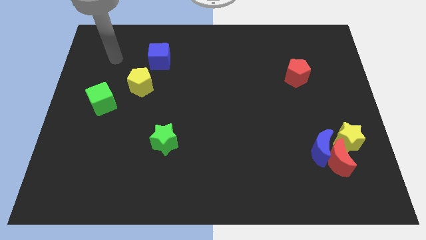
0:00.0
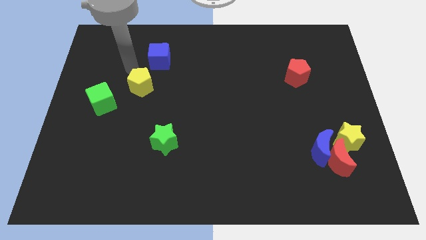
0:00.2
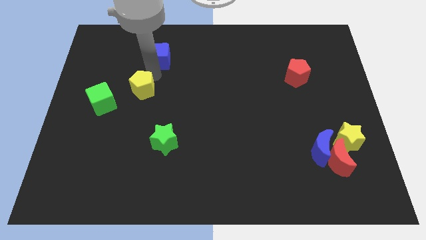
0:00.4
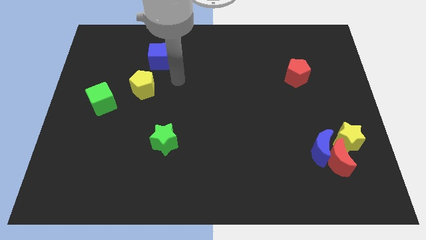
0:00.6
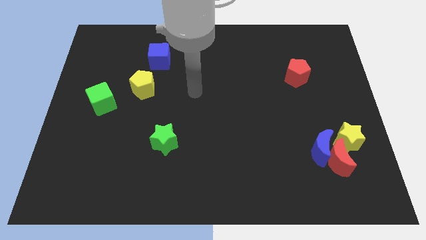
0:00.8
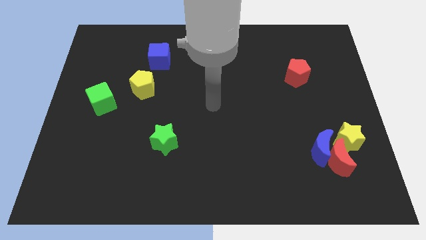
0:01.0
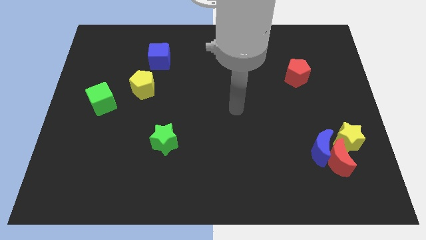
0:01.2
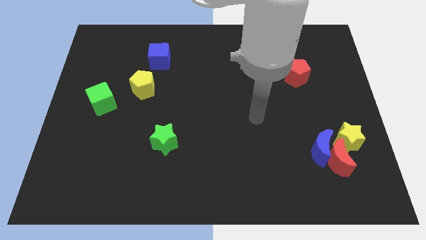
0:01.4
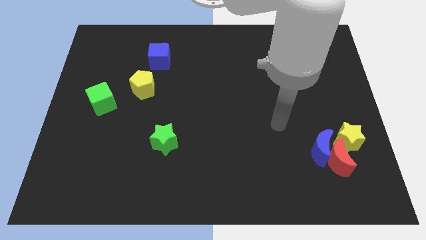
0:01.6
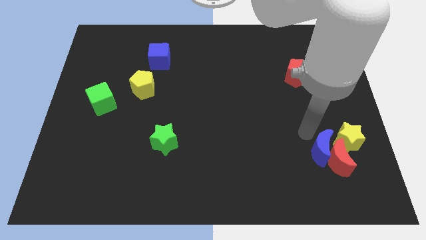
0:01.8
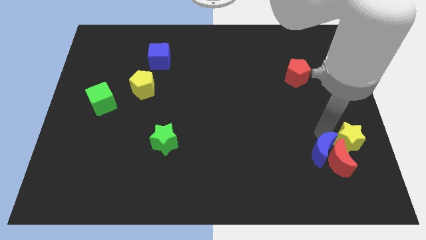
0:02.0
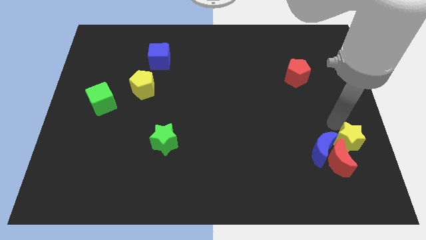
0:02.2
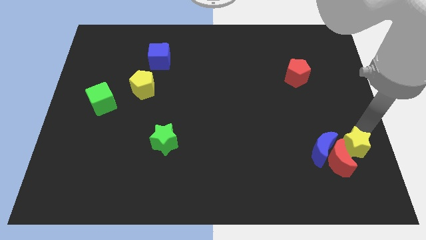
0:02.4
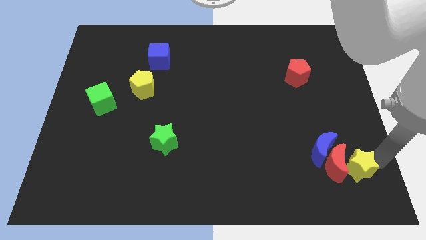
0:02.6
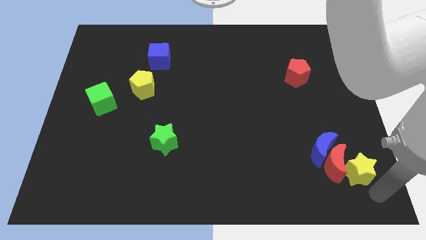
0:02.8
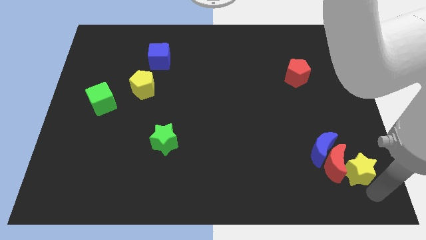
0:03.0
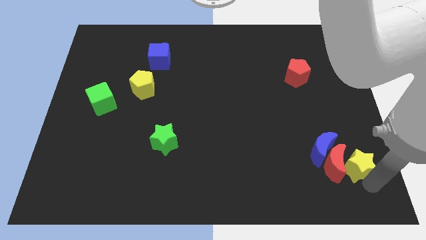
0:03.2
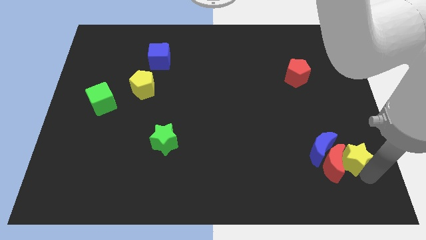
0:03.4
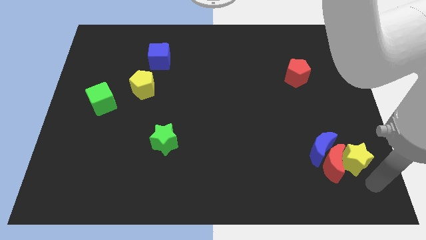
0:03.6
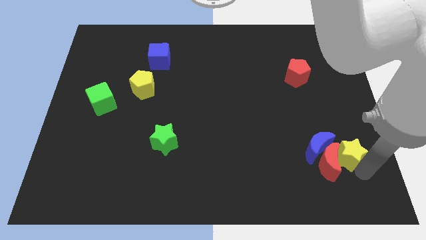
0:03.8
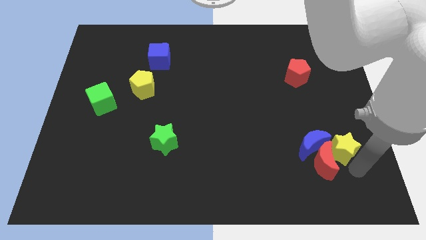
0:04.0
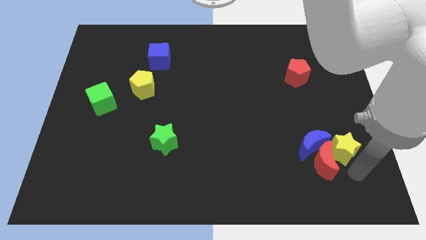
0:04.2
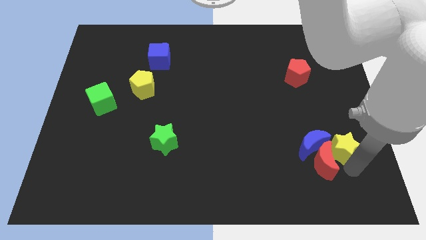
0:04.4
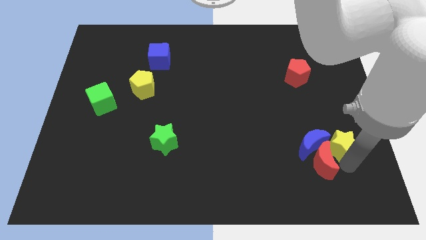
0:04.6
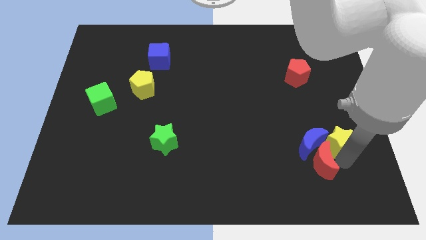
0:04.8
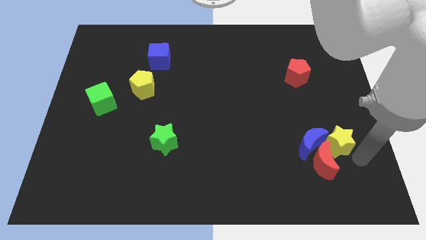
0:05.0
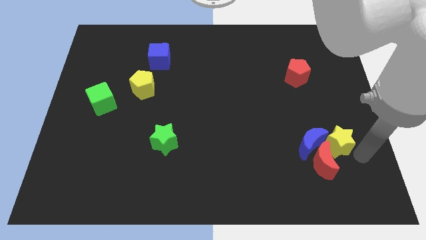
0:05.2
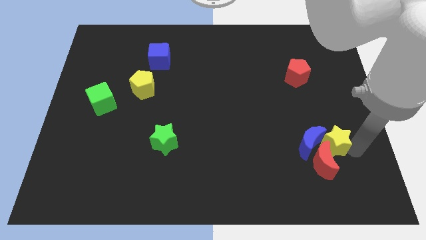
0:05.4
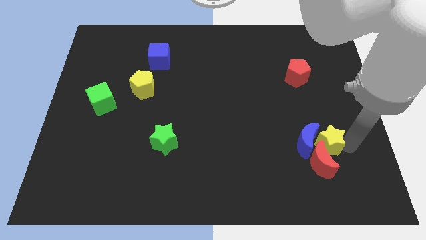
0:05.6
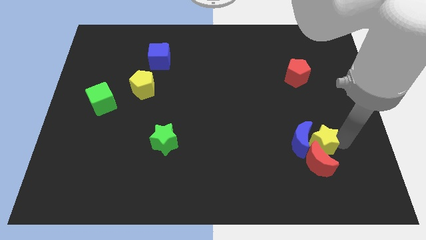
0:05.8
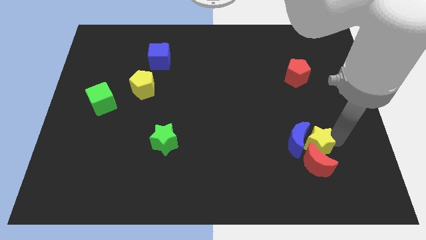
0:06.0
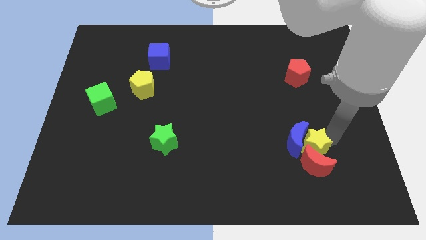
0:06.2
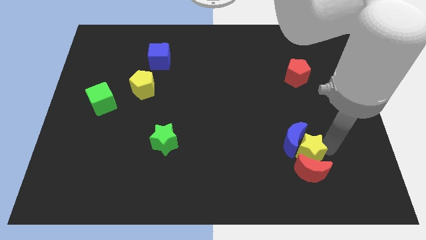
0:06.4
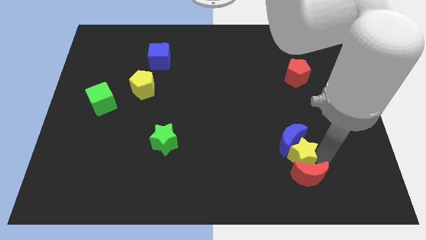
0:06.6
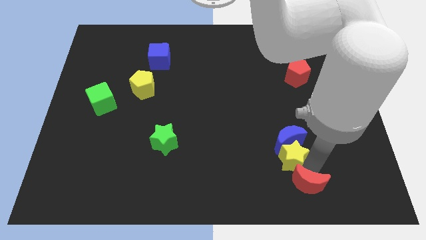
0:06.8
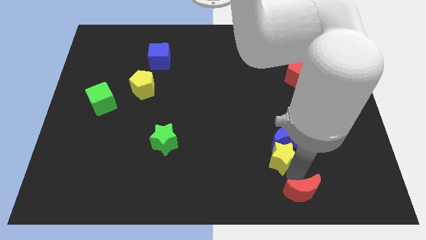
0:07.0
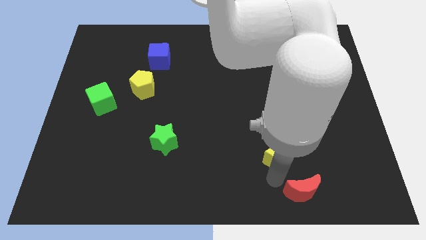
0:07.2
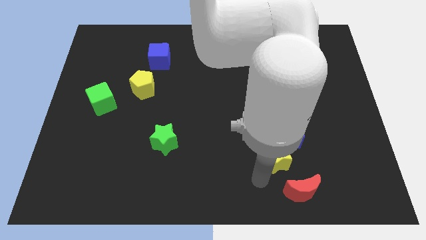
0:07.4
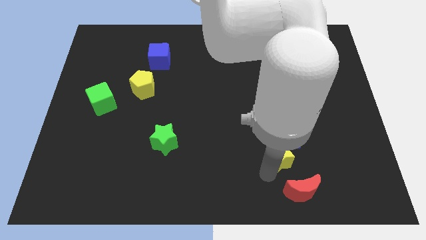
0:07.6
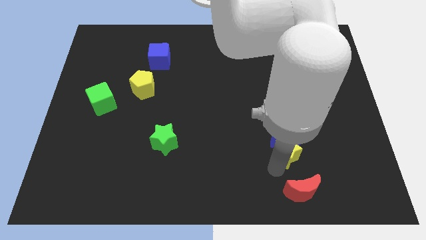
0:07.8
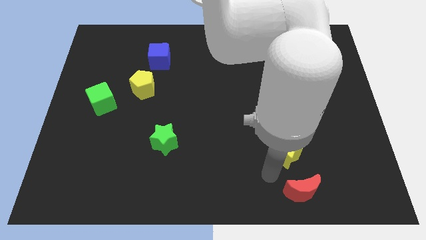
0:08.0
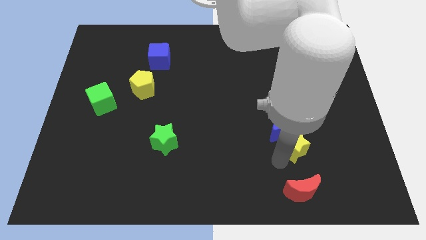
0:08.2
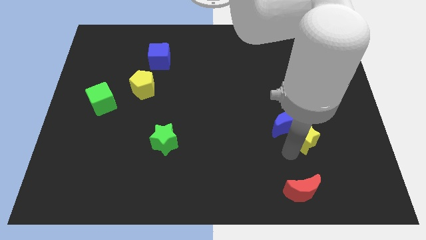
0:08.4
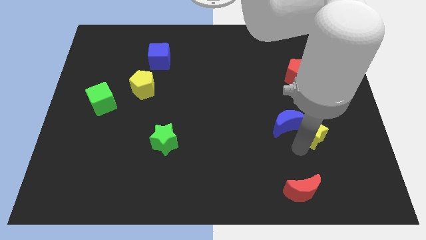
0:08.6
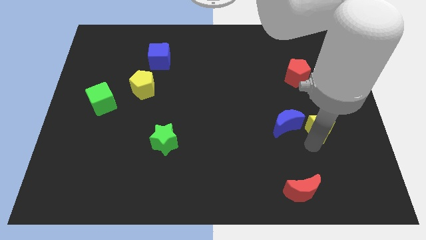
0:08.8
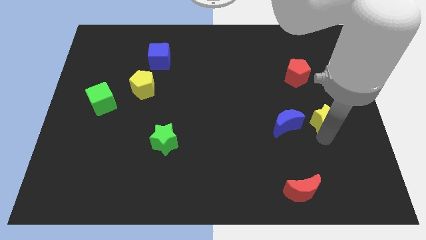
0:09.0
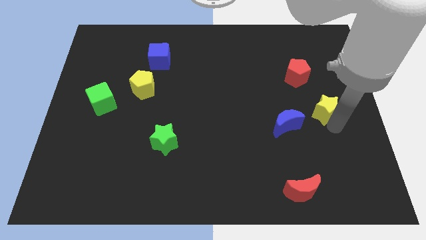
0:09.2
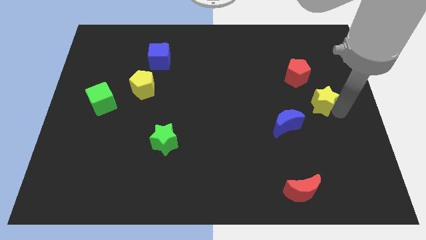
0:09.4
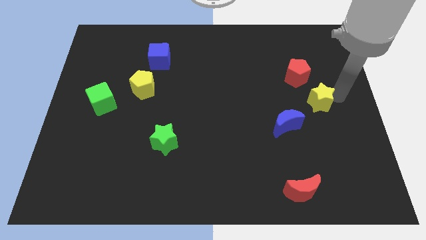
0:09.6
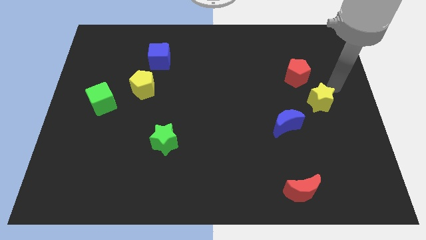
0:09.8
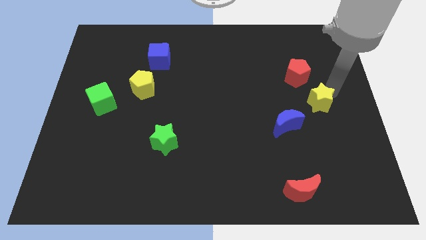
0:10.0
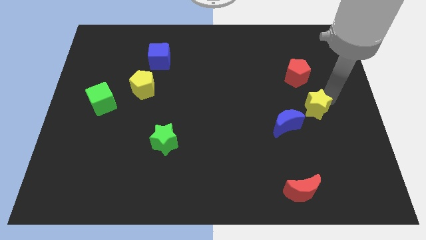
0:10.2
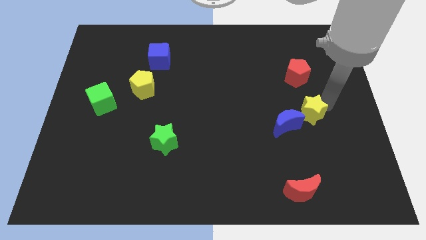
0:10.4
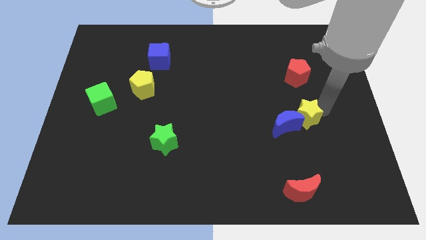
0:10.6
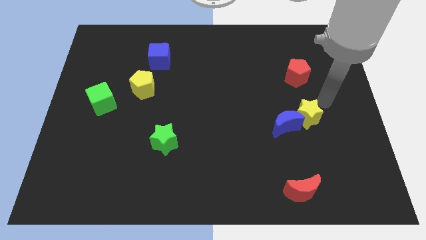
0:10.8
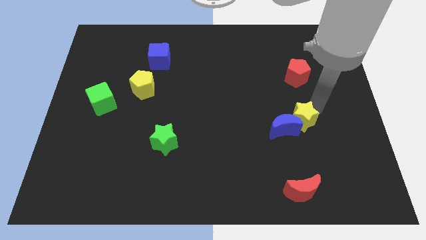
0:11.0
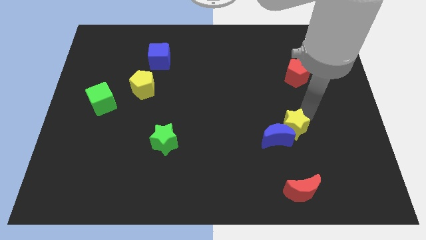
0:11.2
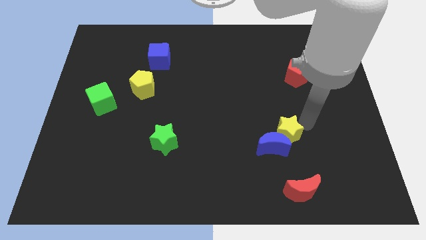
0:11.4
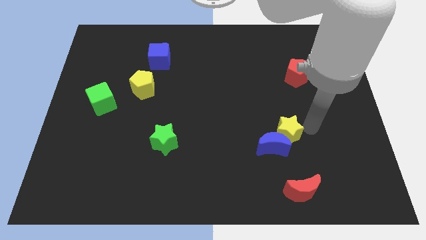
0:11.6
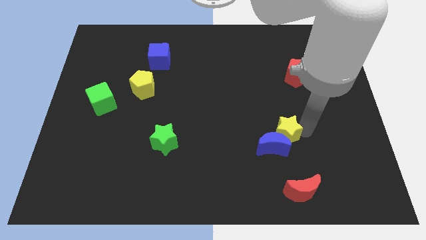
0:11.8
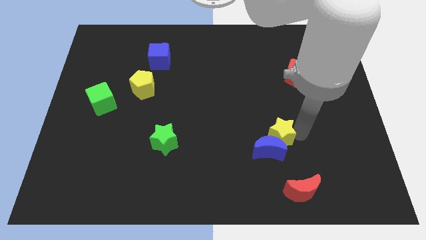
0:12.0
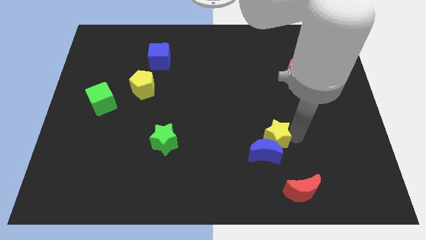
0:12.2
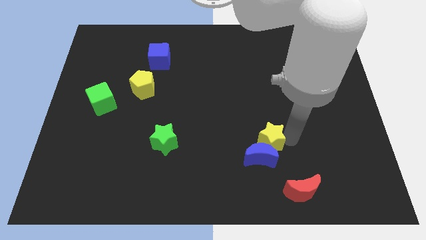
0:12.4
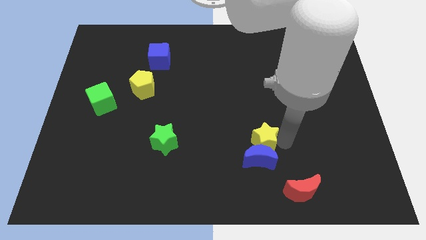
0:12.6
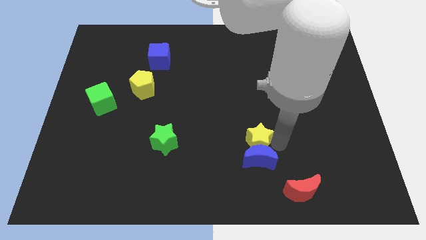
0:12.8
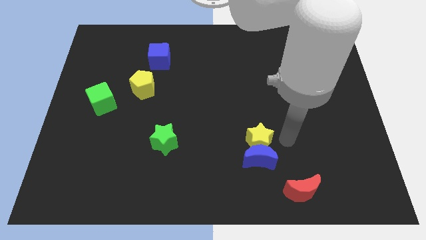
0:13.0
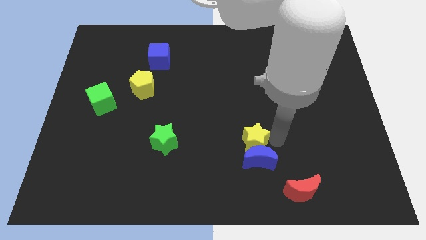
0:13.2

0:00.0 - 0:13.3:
move the yellow star left

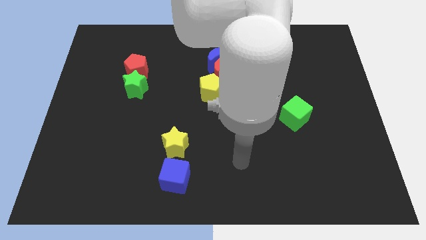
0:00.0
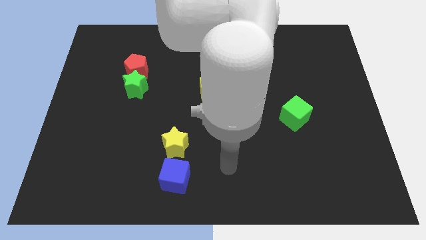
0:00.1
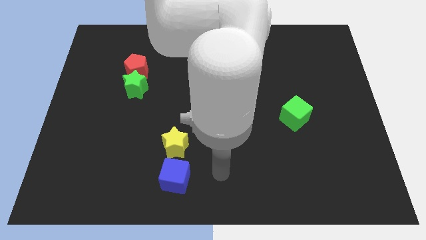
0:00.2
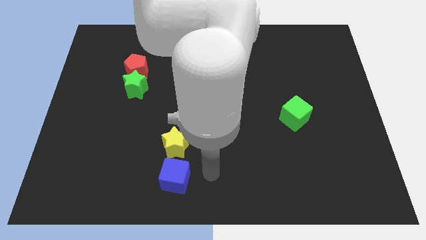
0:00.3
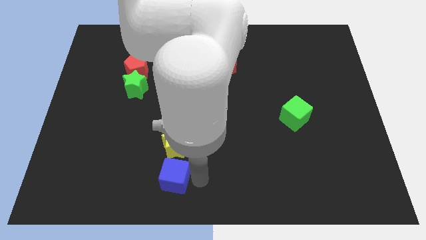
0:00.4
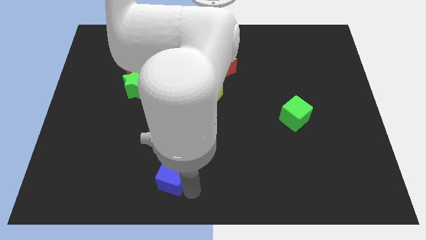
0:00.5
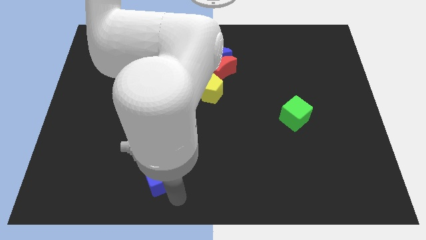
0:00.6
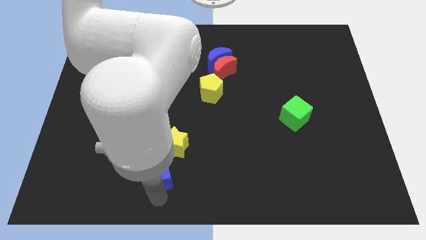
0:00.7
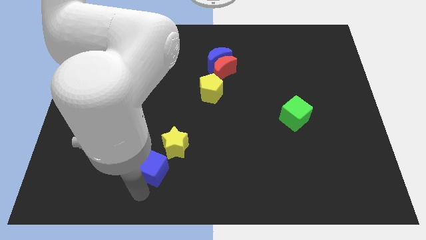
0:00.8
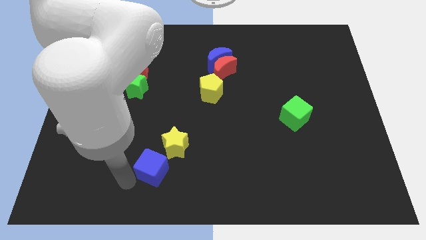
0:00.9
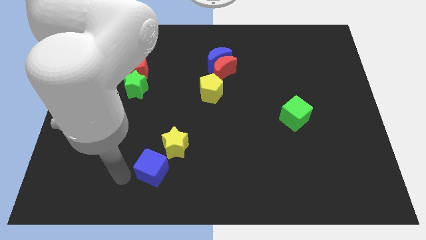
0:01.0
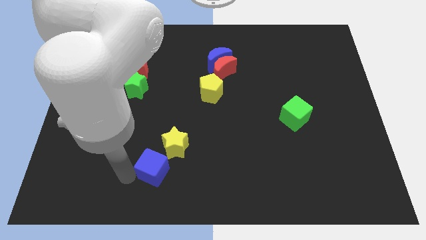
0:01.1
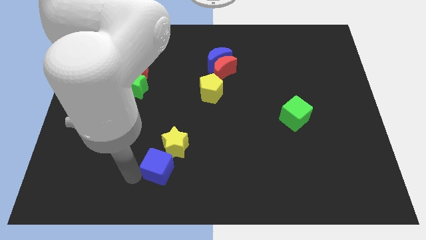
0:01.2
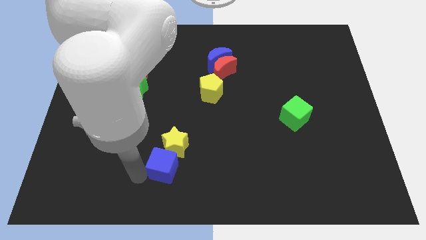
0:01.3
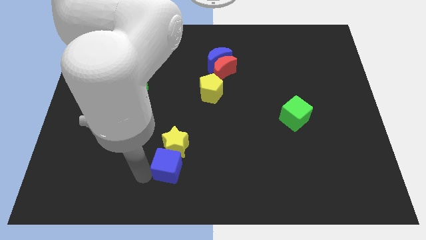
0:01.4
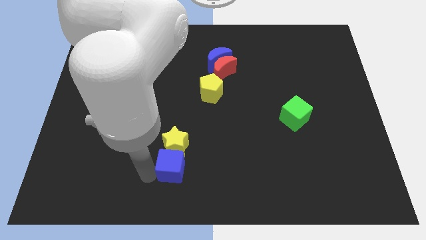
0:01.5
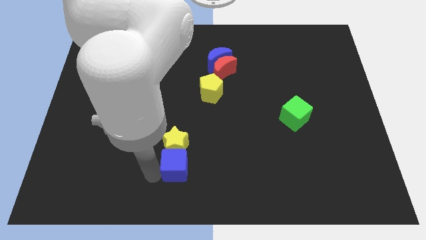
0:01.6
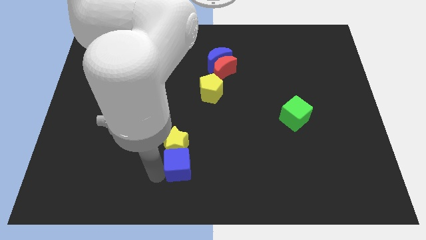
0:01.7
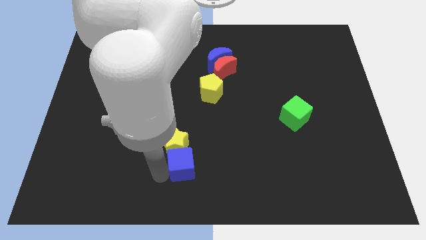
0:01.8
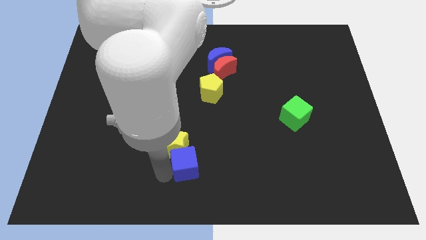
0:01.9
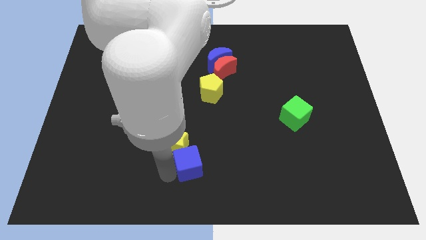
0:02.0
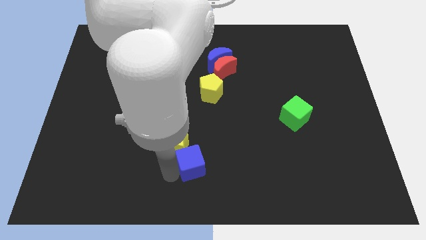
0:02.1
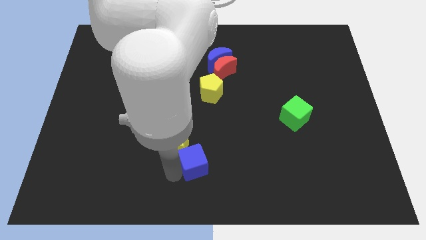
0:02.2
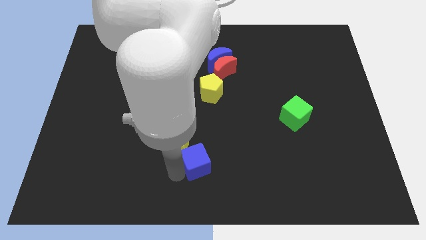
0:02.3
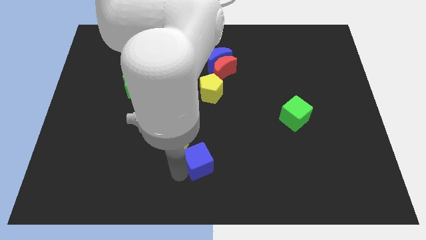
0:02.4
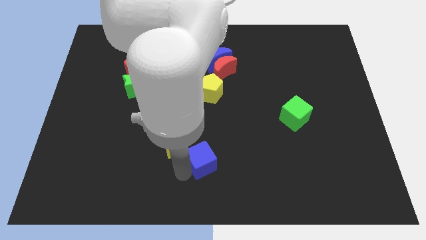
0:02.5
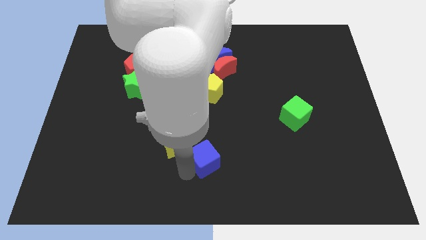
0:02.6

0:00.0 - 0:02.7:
slightly push the blue cube up and right
